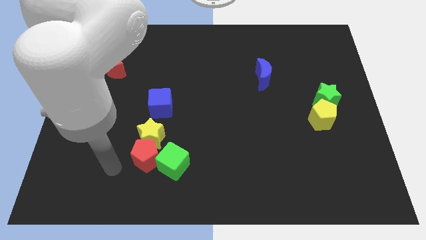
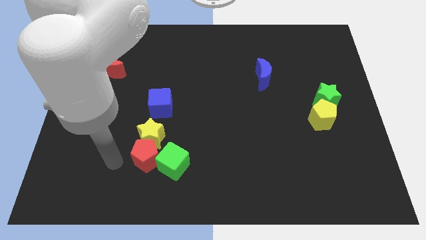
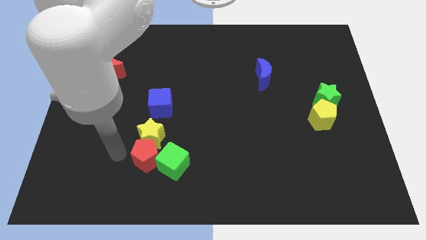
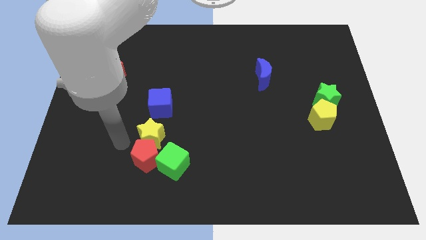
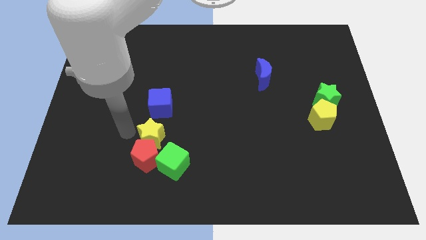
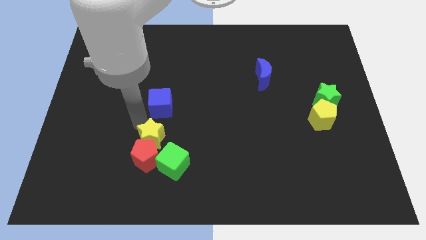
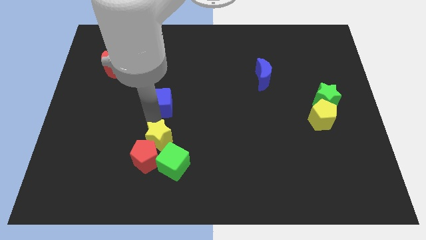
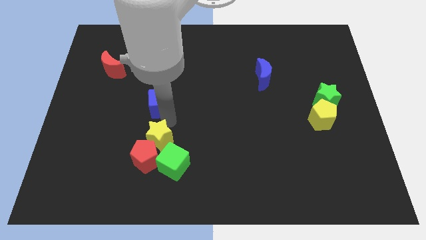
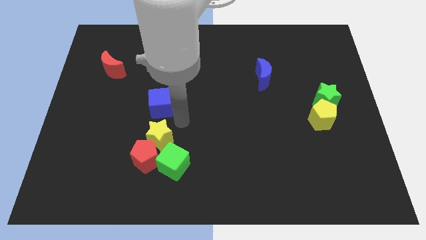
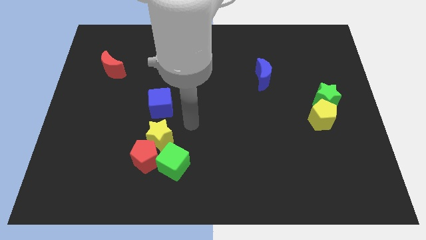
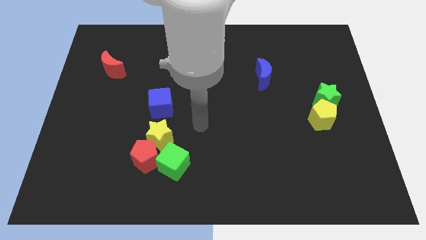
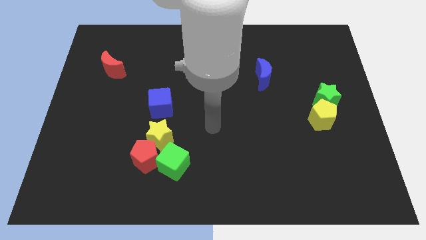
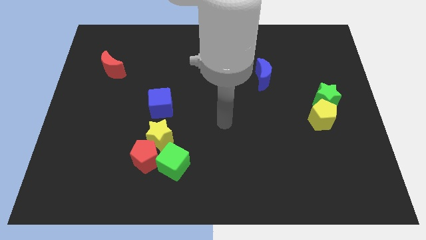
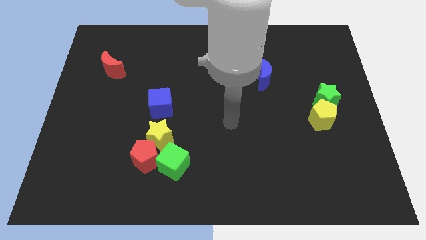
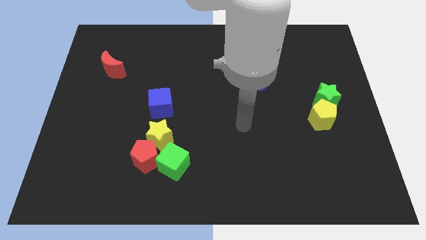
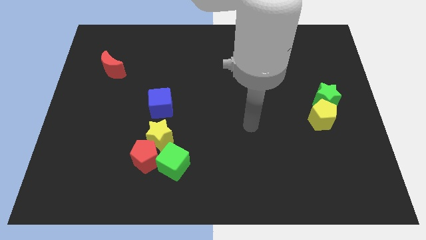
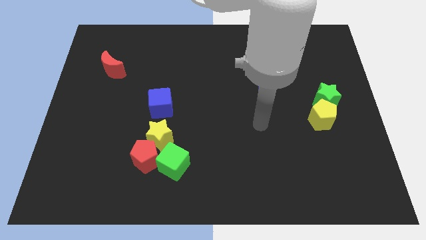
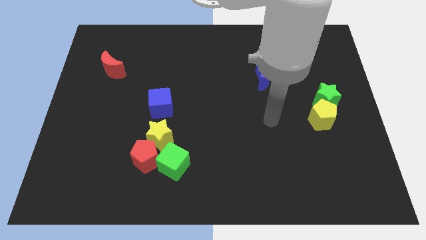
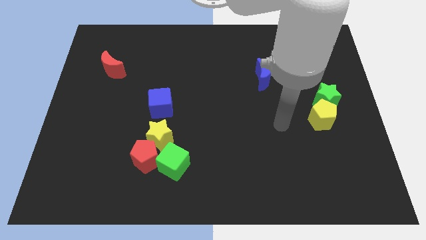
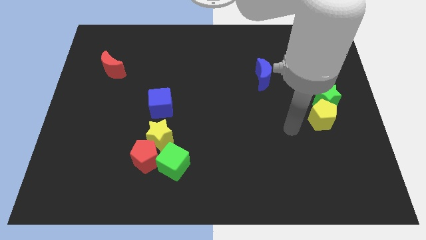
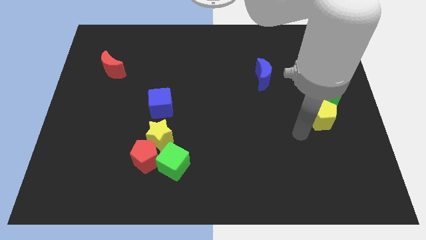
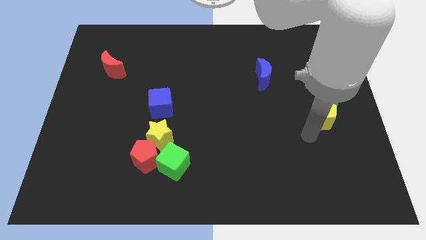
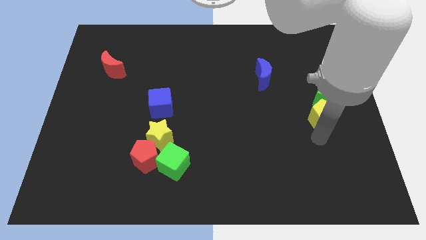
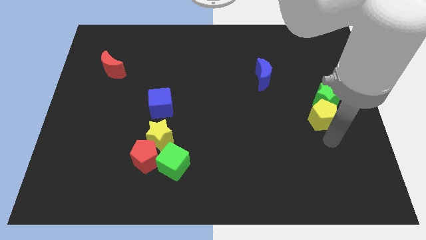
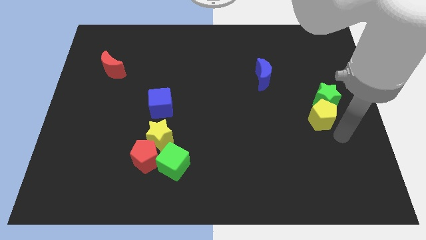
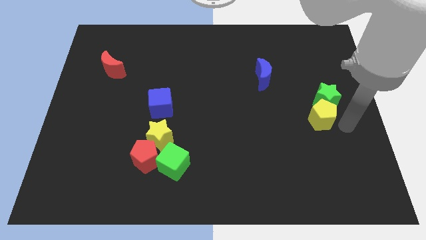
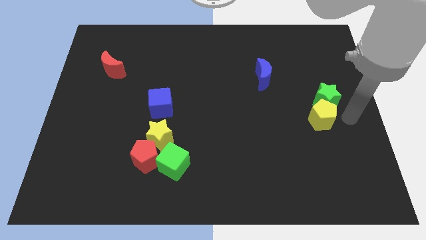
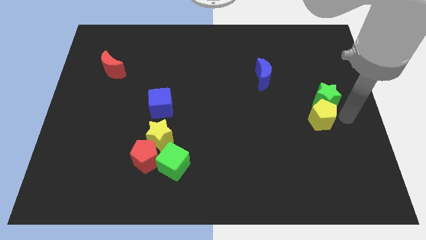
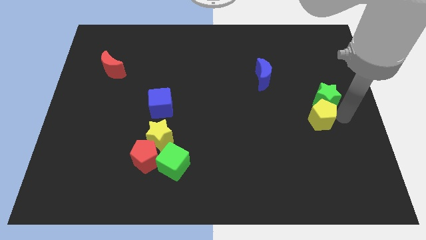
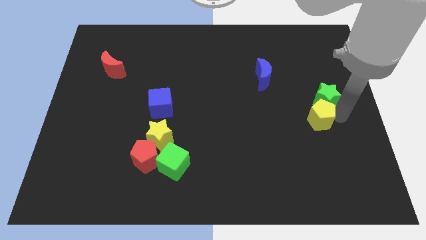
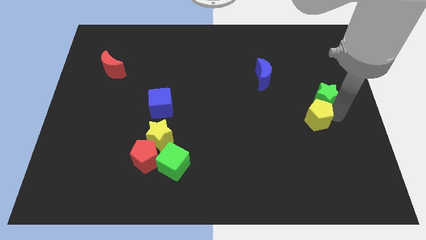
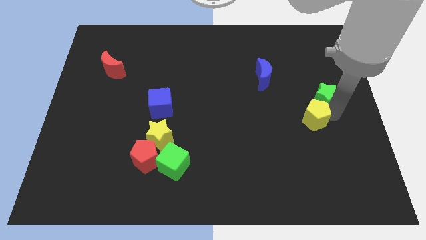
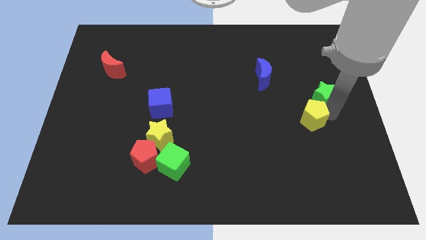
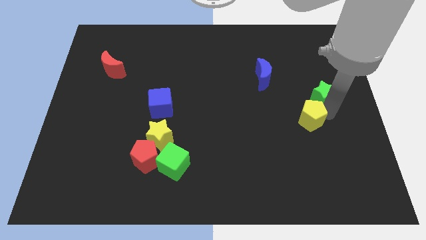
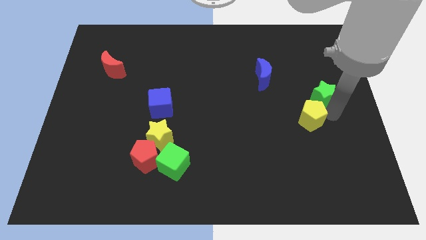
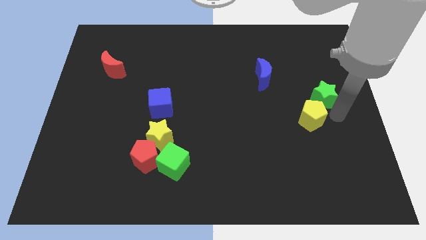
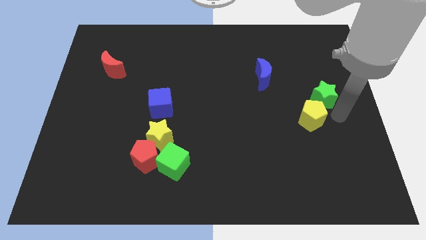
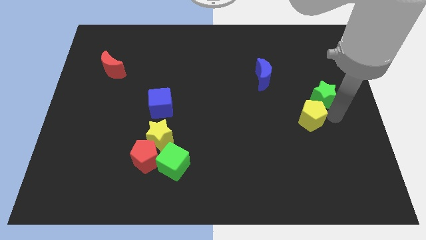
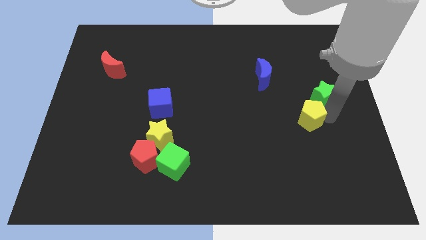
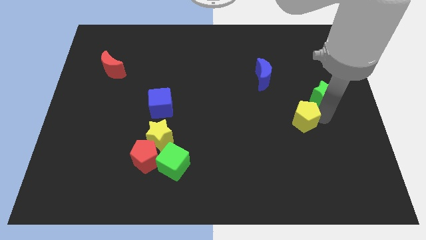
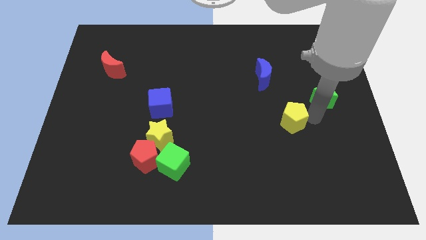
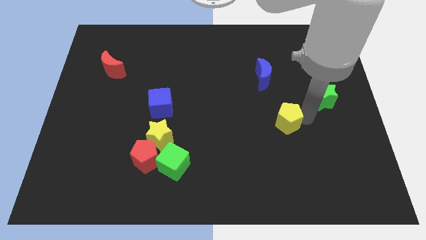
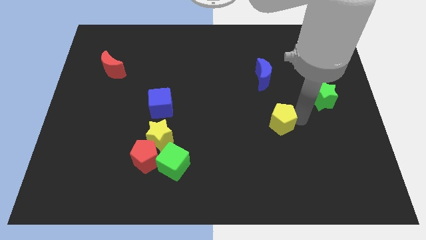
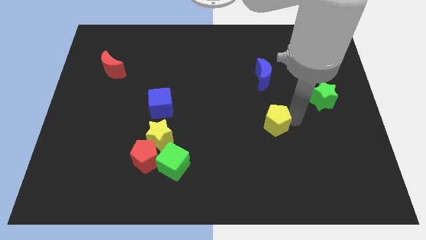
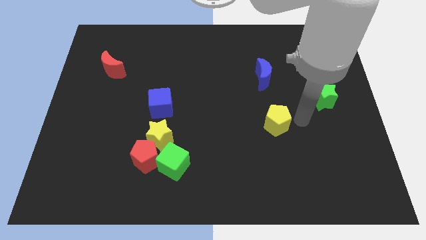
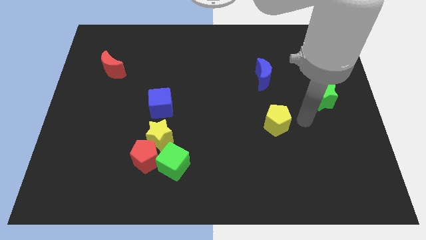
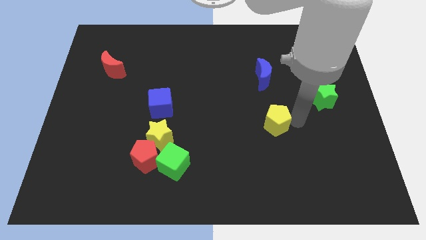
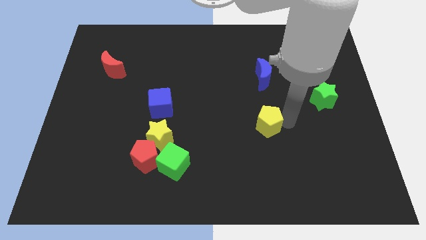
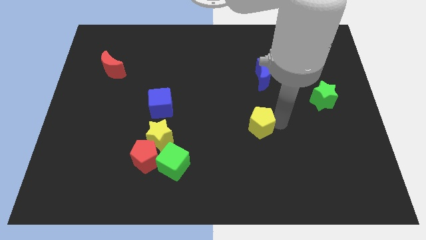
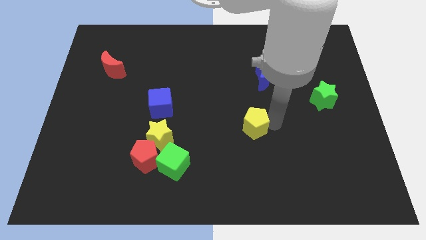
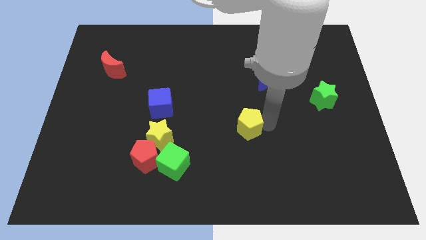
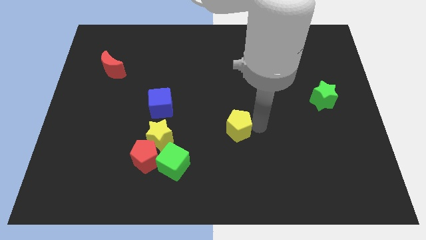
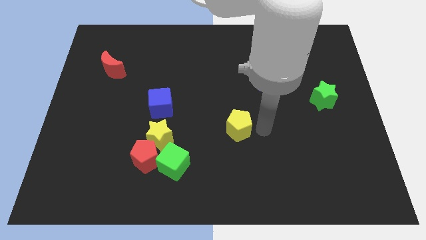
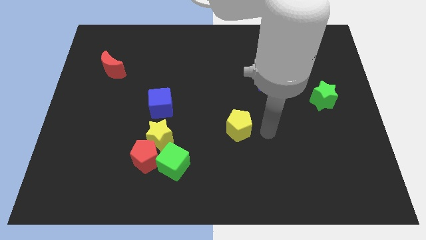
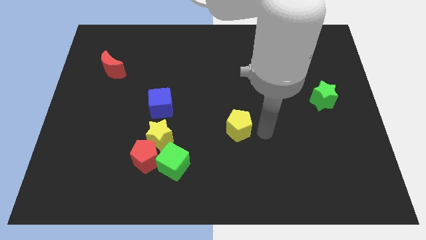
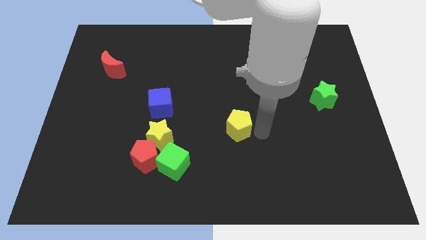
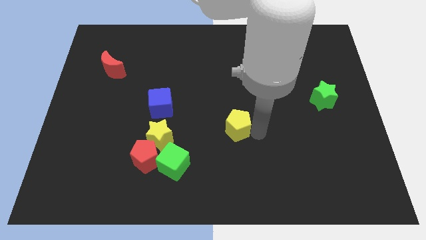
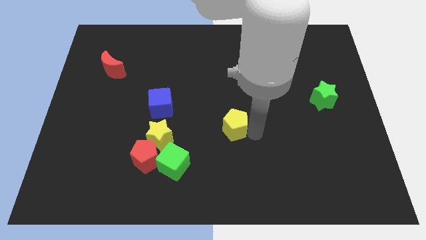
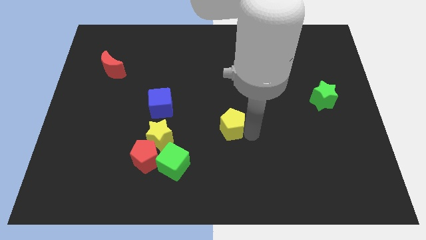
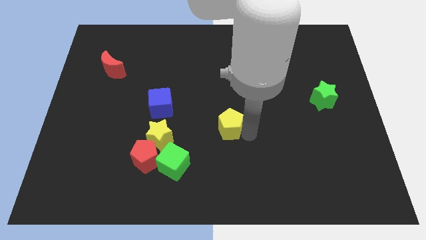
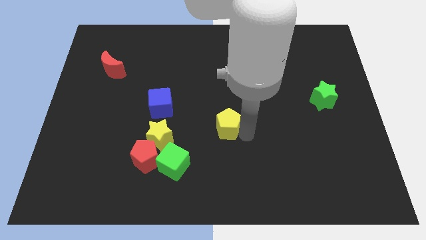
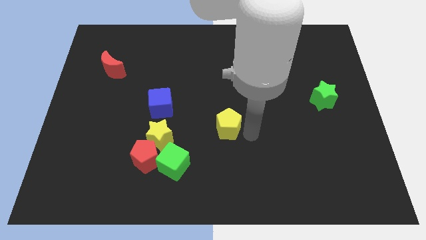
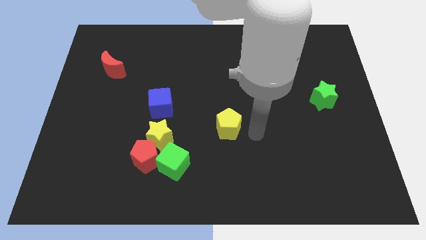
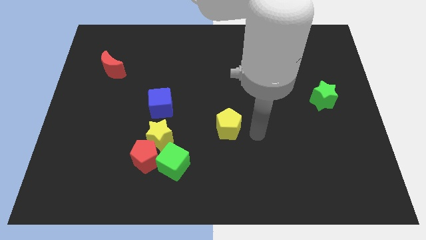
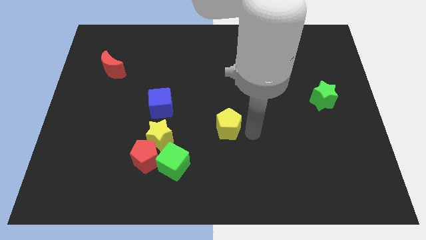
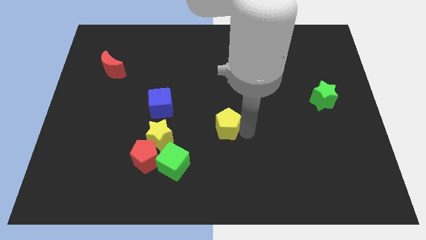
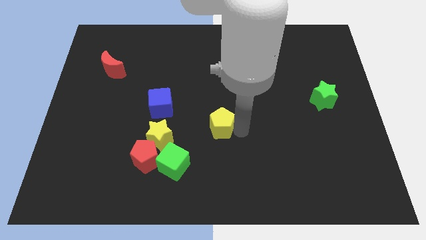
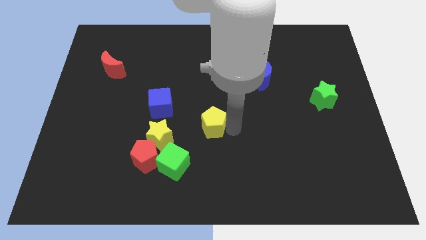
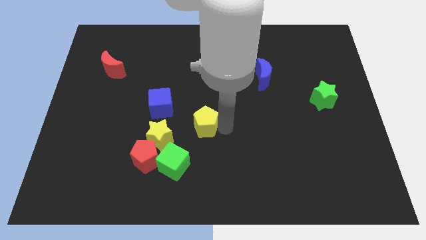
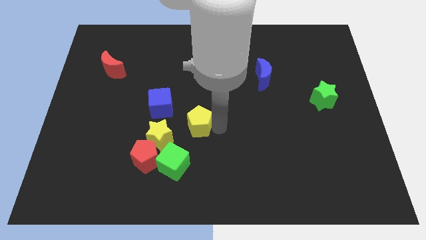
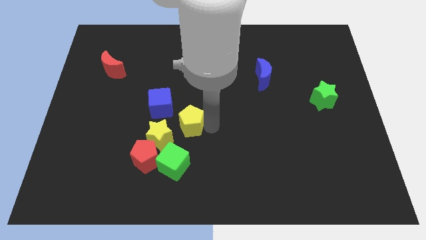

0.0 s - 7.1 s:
put the yellow pentagon to the top side of the green cube

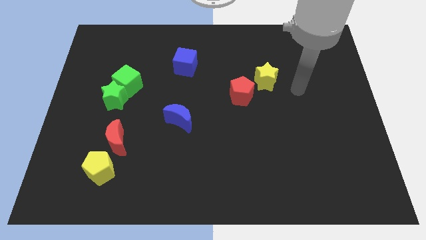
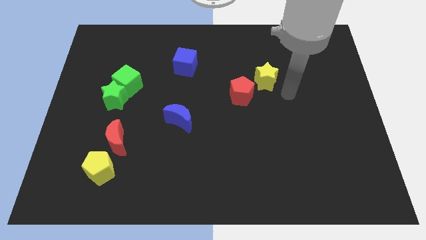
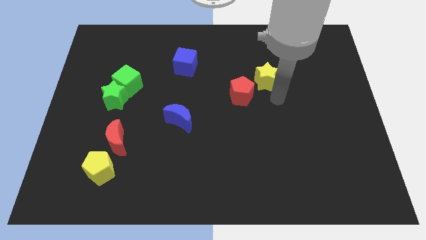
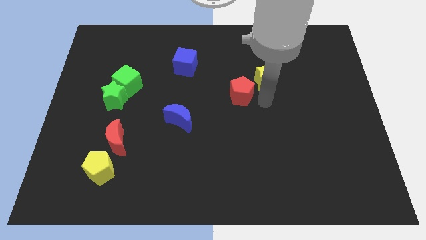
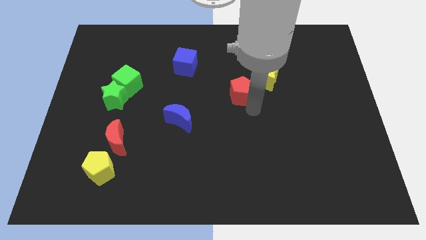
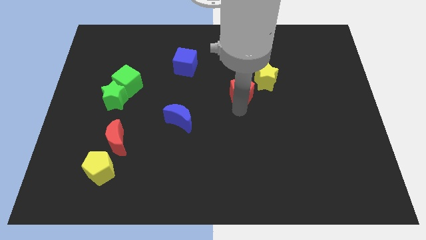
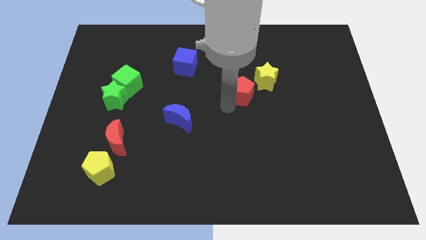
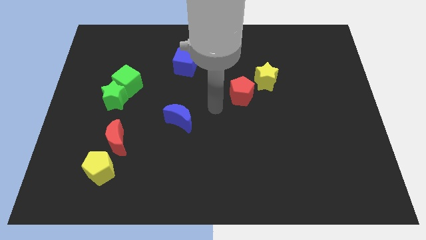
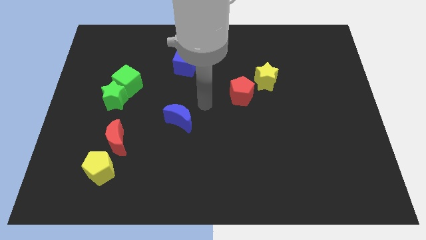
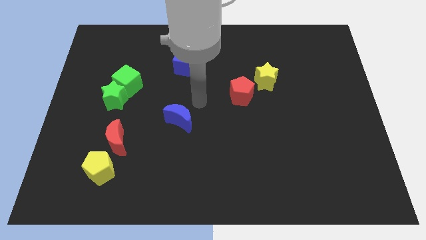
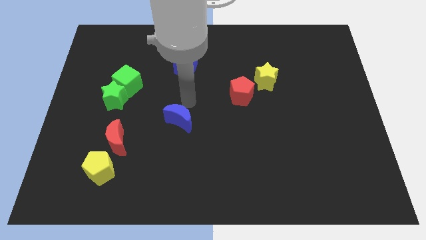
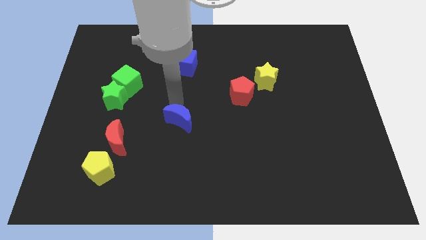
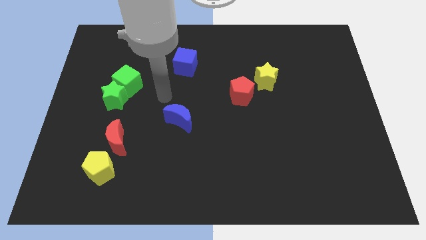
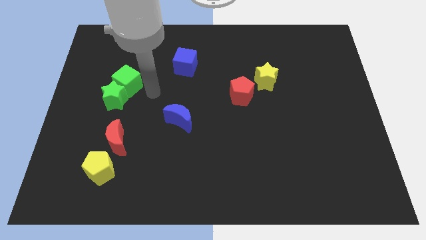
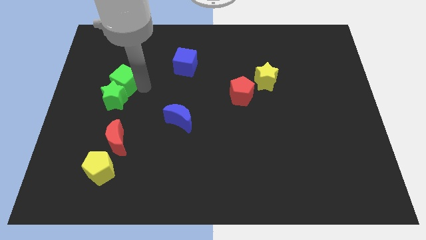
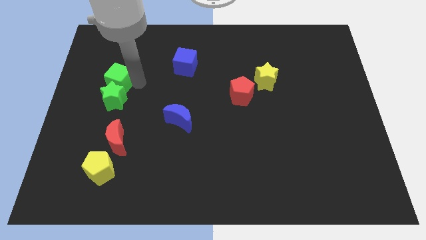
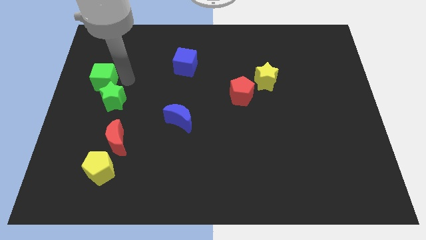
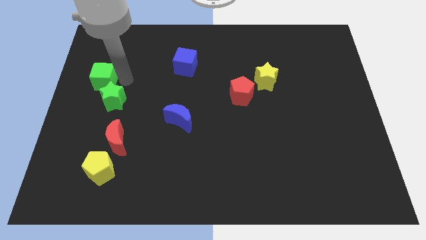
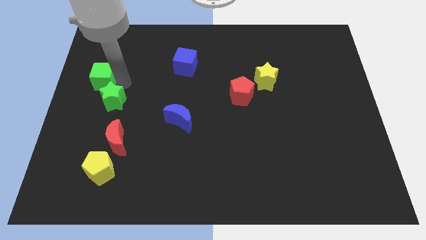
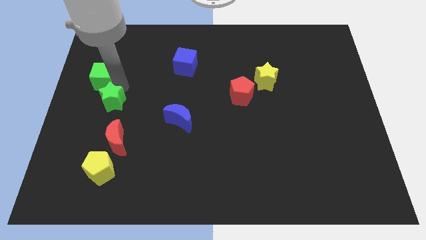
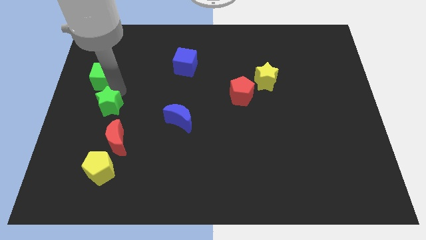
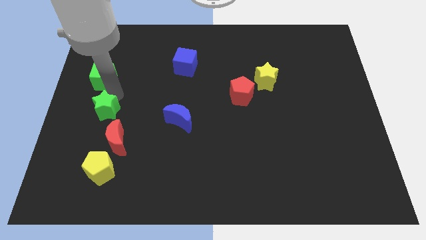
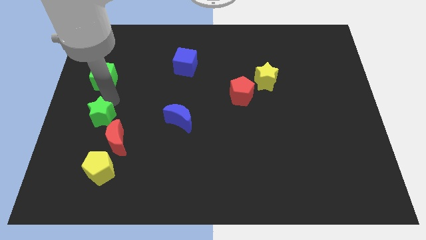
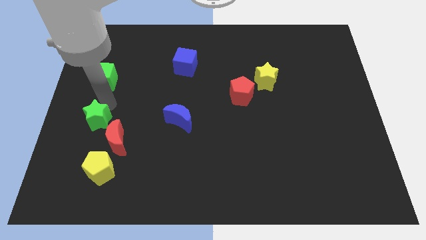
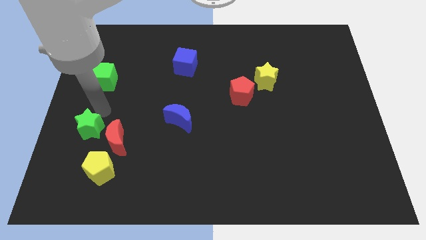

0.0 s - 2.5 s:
slide the green star to the top left of the yellow pentagon
